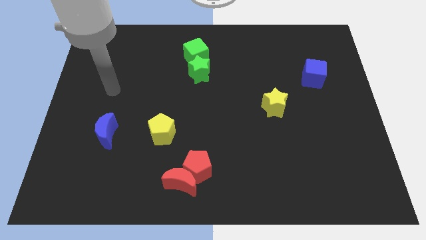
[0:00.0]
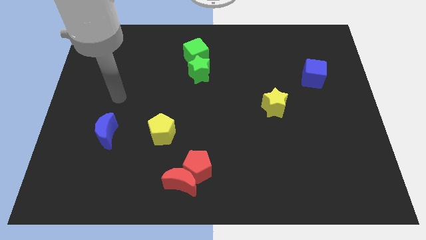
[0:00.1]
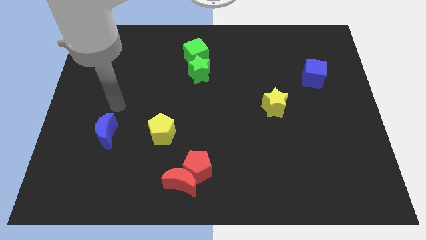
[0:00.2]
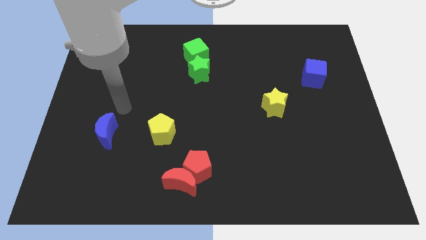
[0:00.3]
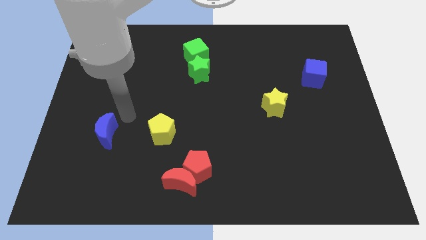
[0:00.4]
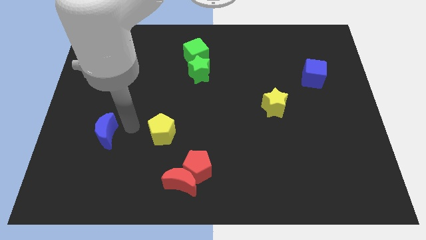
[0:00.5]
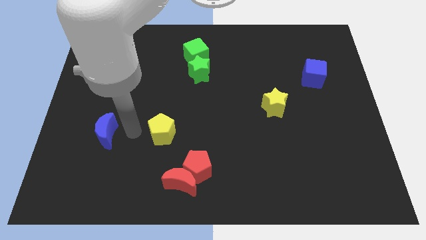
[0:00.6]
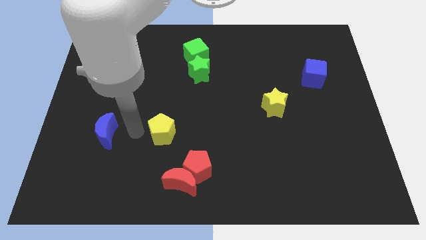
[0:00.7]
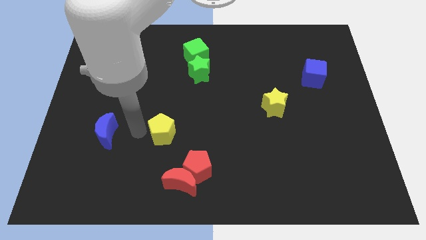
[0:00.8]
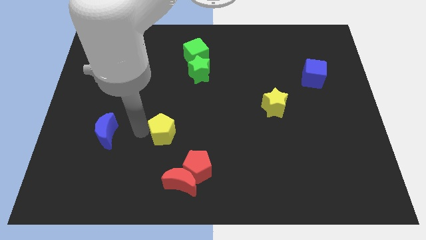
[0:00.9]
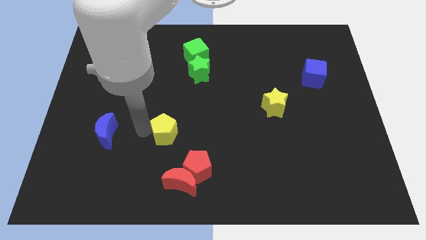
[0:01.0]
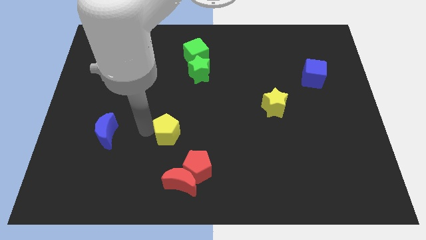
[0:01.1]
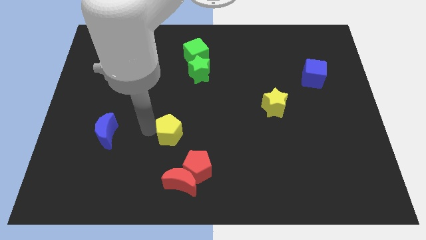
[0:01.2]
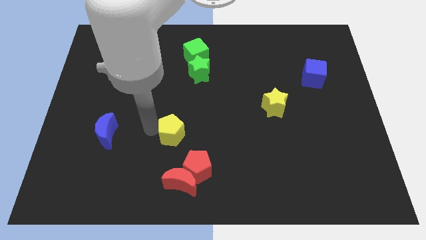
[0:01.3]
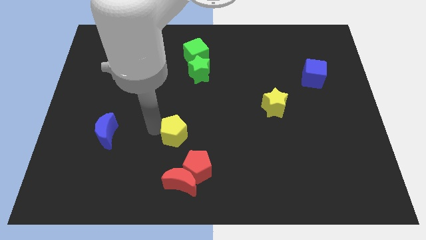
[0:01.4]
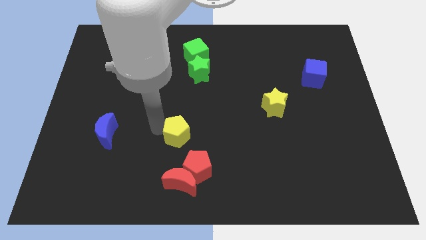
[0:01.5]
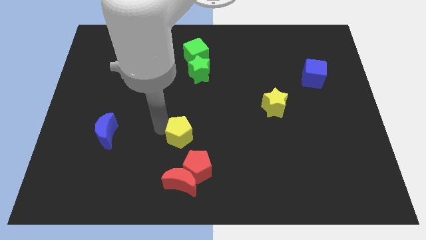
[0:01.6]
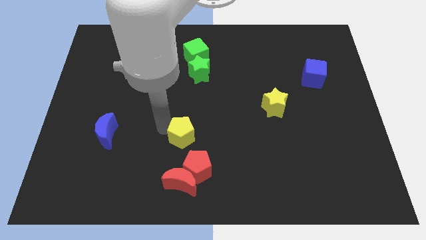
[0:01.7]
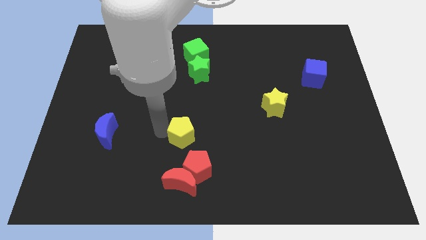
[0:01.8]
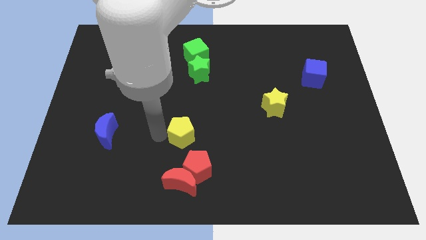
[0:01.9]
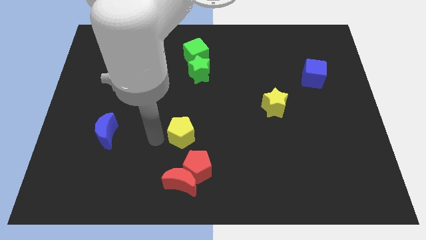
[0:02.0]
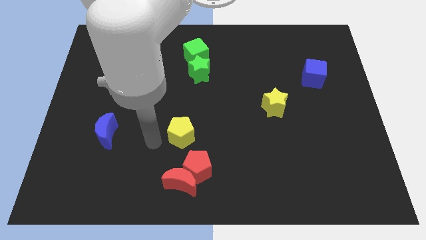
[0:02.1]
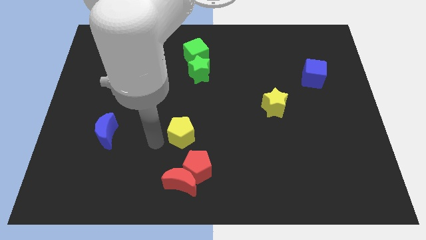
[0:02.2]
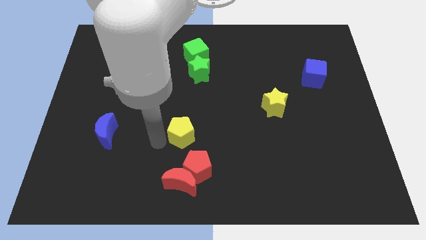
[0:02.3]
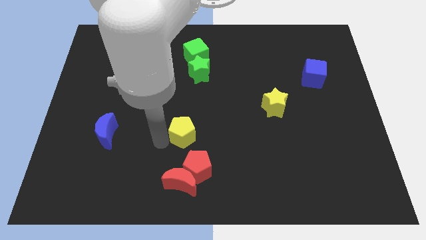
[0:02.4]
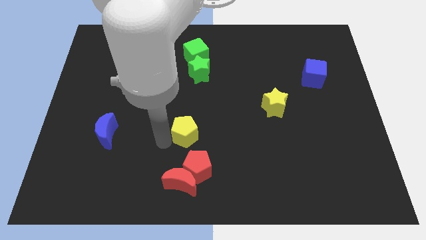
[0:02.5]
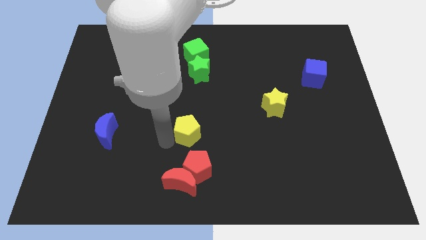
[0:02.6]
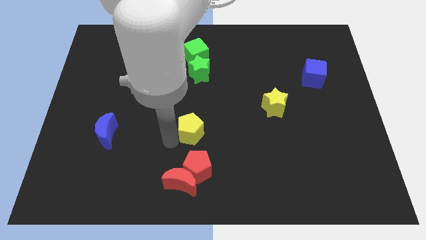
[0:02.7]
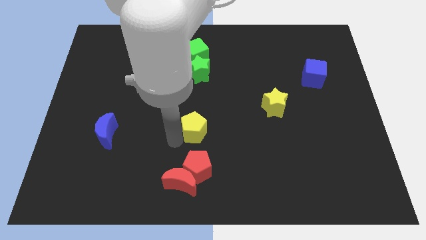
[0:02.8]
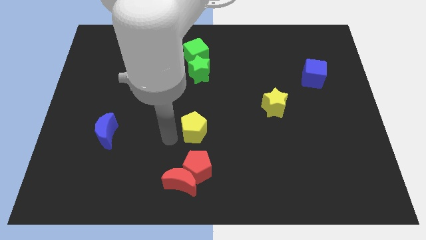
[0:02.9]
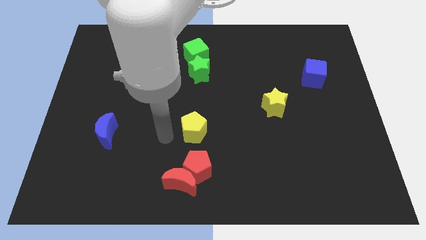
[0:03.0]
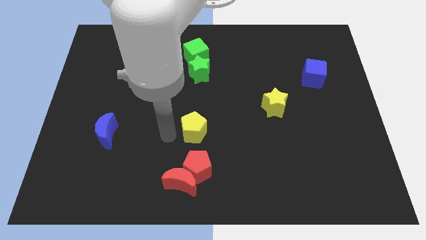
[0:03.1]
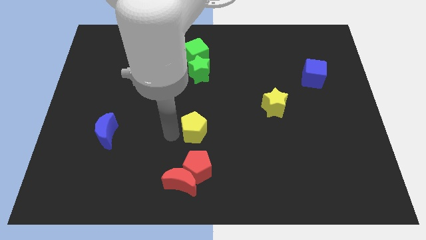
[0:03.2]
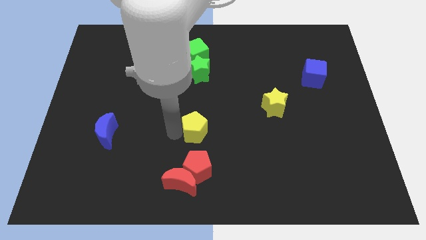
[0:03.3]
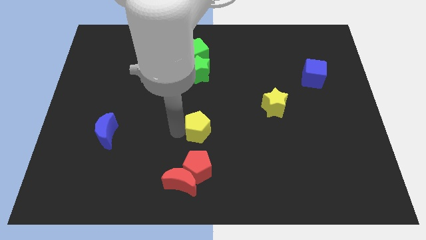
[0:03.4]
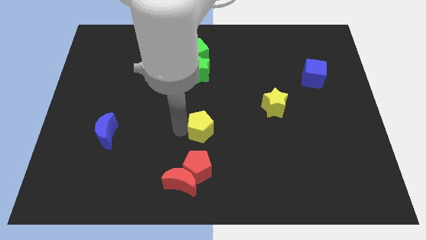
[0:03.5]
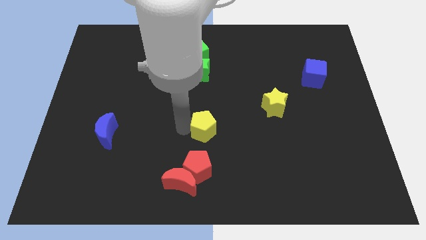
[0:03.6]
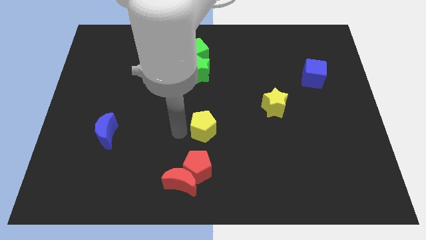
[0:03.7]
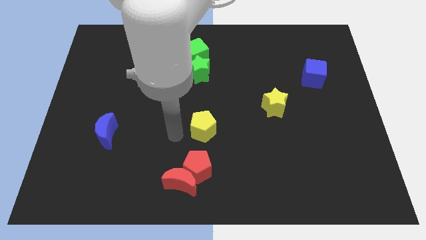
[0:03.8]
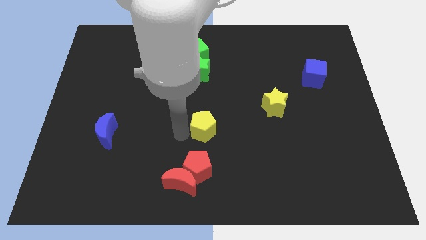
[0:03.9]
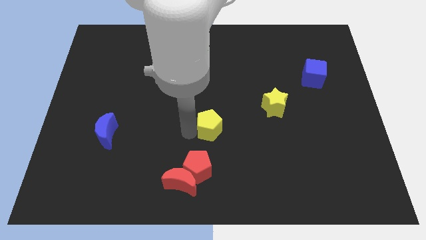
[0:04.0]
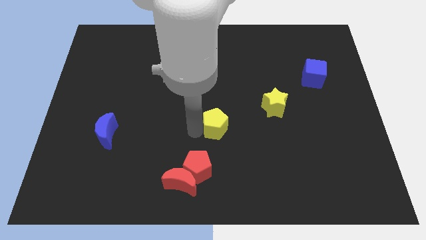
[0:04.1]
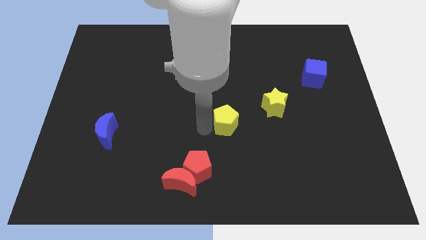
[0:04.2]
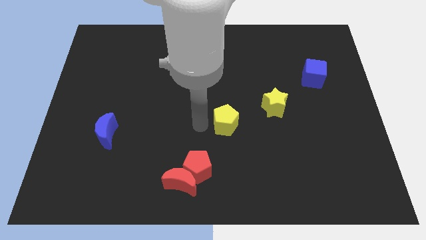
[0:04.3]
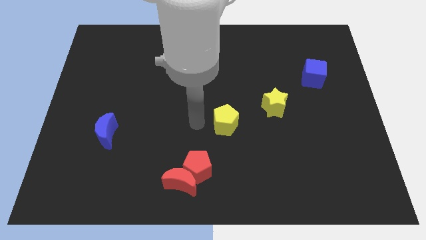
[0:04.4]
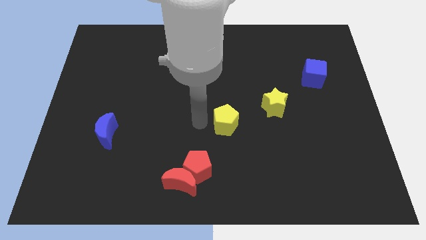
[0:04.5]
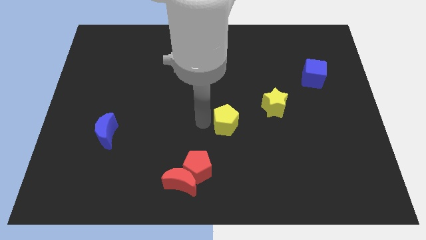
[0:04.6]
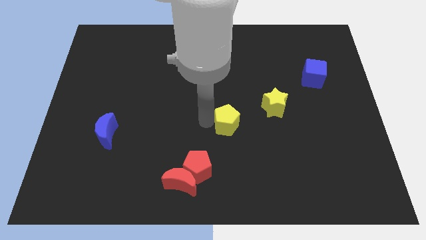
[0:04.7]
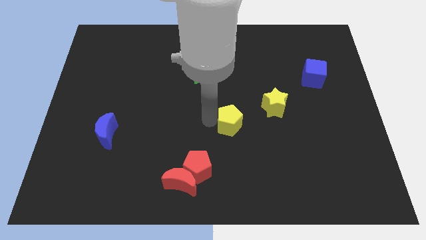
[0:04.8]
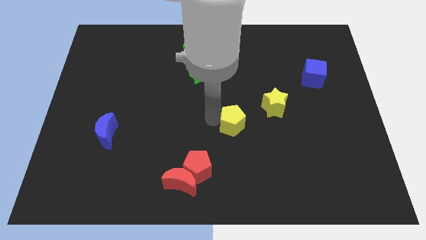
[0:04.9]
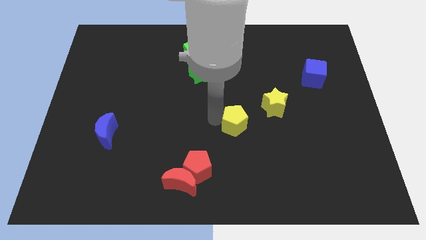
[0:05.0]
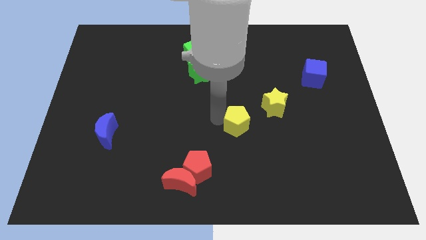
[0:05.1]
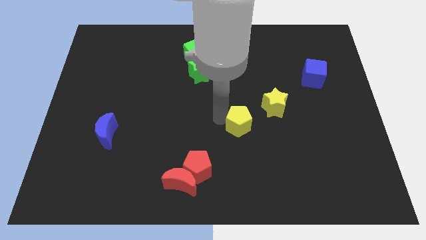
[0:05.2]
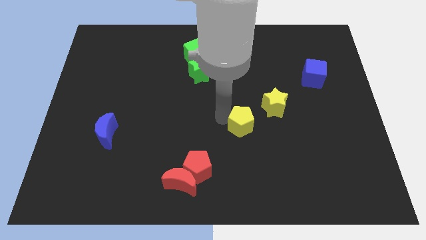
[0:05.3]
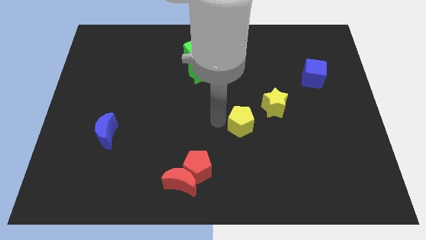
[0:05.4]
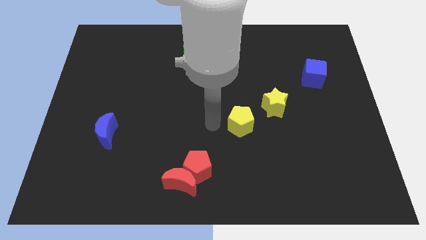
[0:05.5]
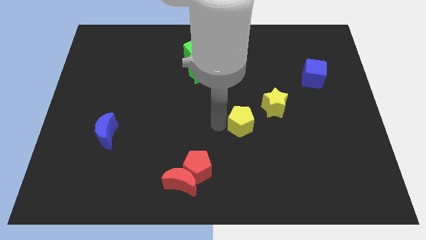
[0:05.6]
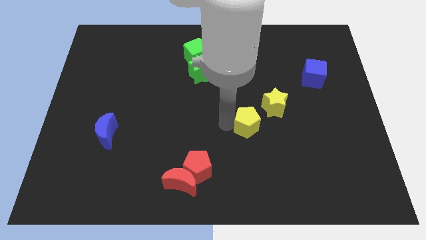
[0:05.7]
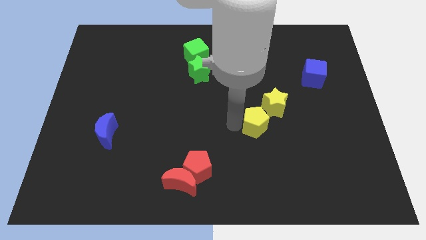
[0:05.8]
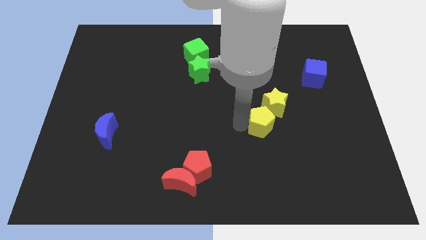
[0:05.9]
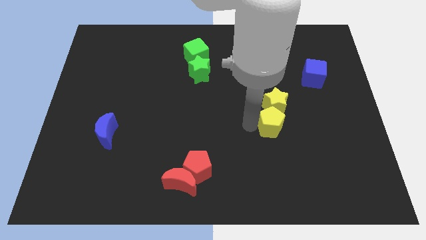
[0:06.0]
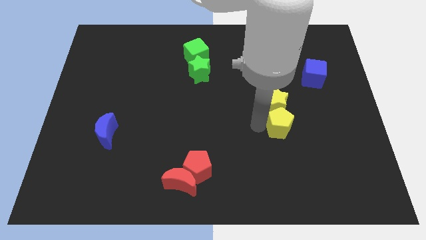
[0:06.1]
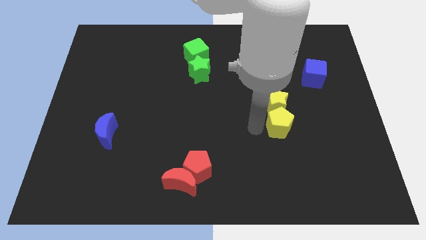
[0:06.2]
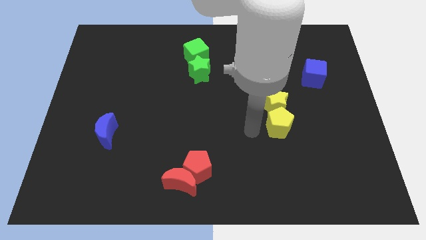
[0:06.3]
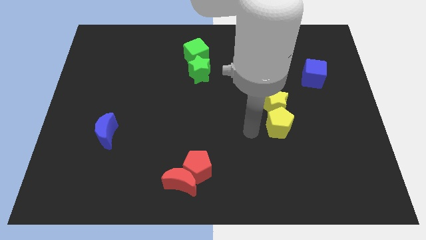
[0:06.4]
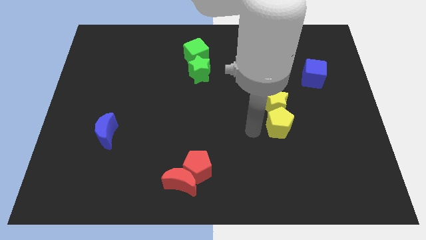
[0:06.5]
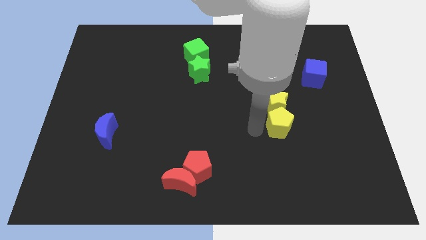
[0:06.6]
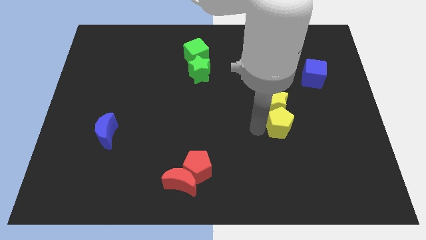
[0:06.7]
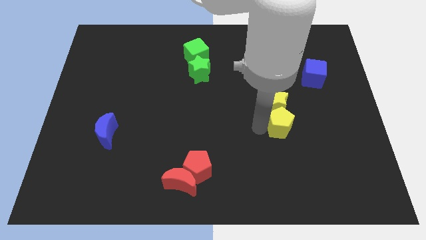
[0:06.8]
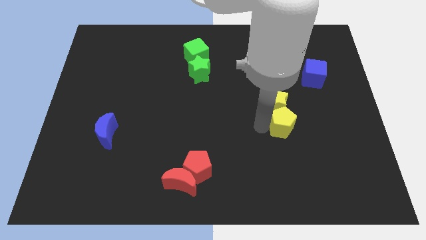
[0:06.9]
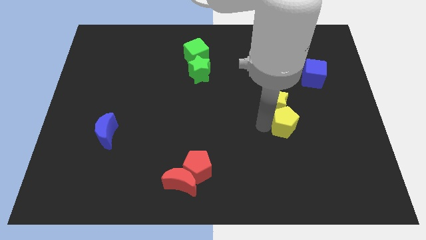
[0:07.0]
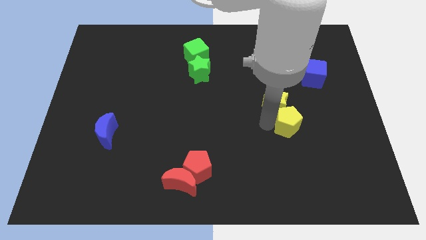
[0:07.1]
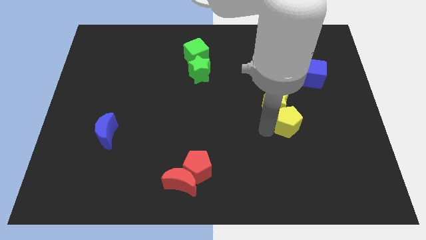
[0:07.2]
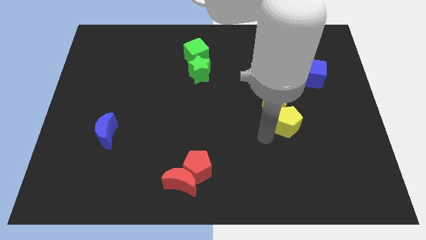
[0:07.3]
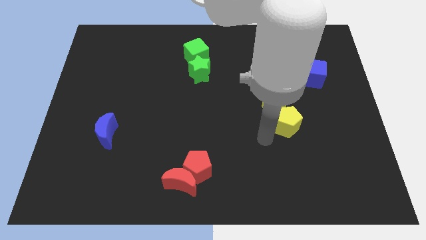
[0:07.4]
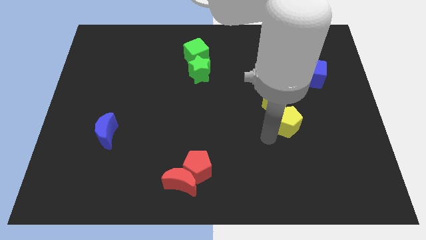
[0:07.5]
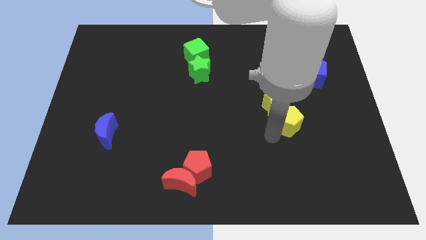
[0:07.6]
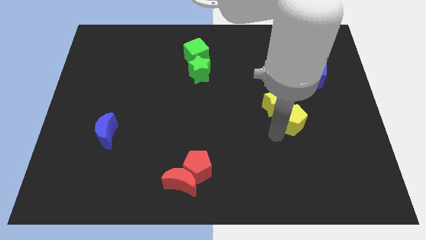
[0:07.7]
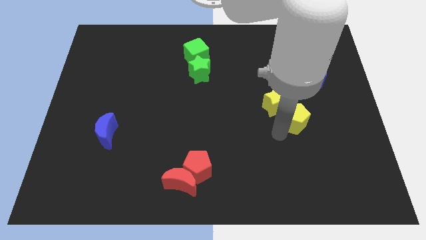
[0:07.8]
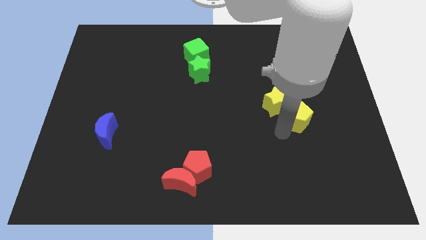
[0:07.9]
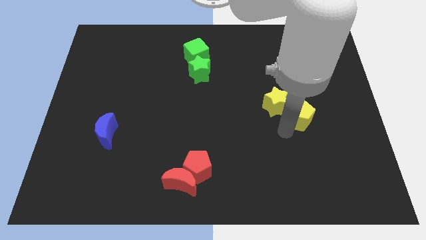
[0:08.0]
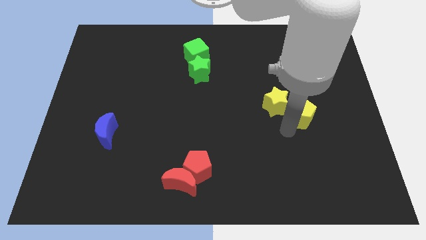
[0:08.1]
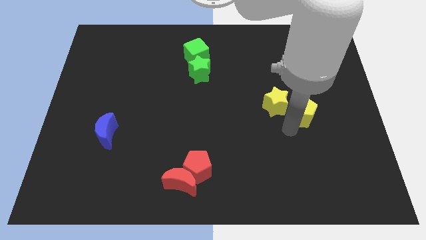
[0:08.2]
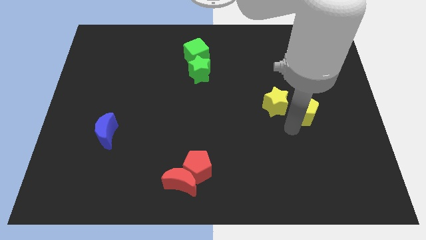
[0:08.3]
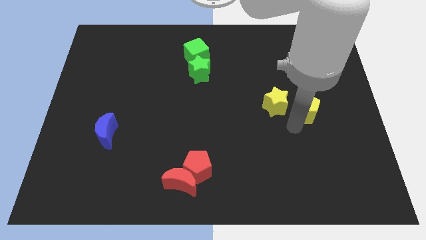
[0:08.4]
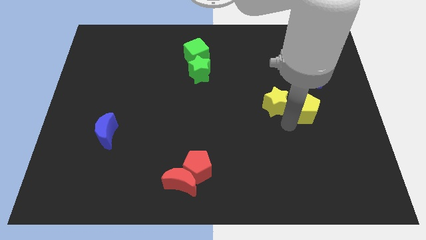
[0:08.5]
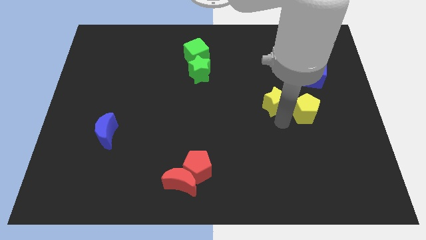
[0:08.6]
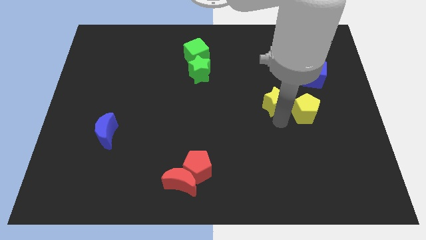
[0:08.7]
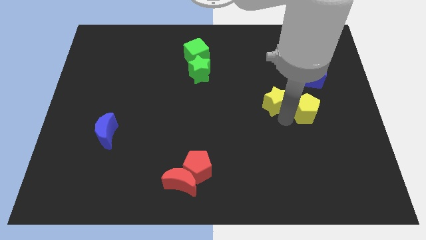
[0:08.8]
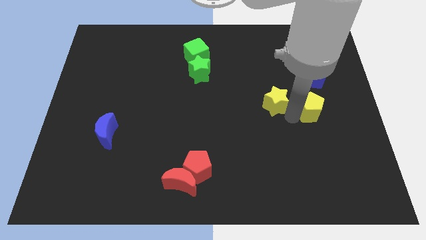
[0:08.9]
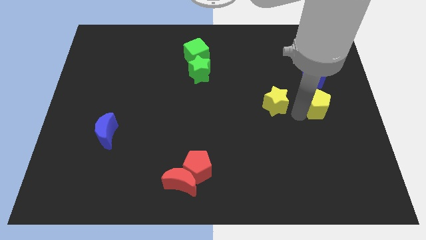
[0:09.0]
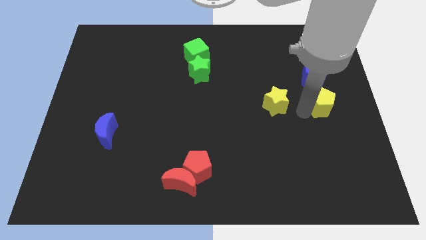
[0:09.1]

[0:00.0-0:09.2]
push the yellow pentagon to the center right
